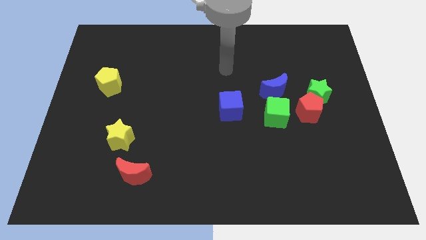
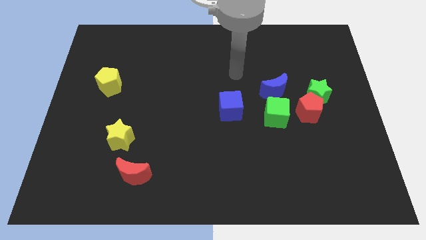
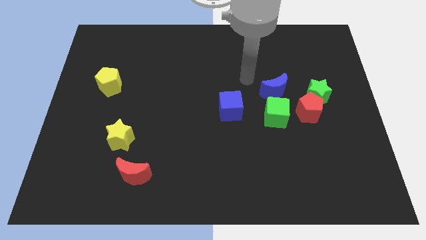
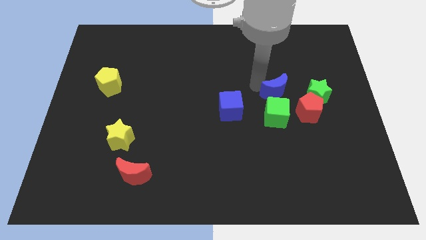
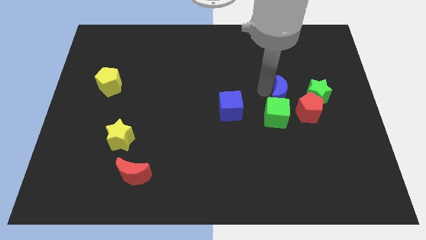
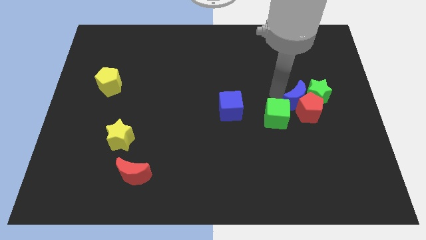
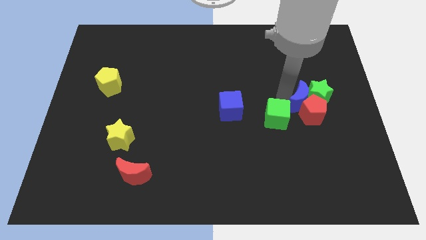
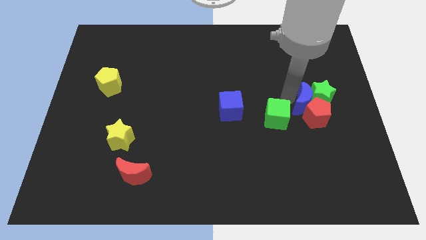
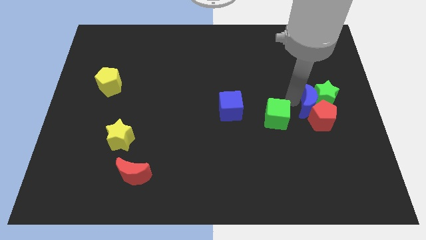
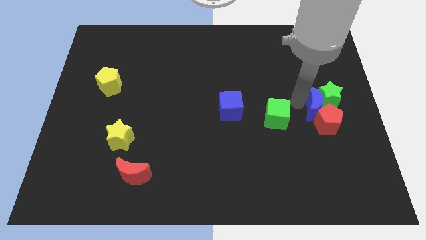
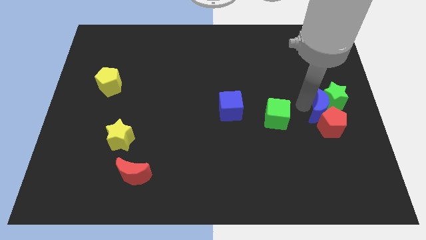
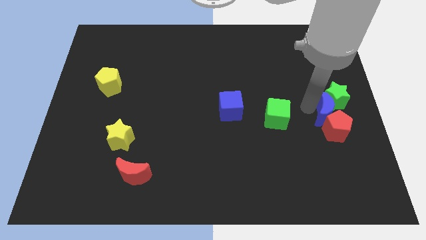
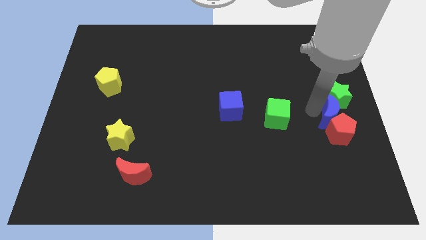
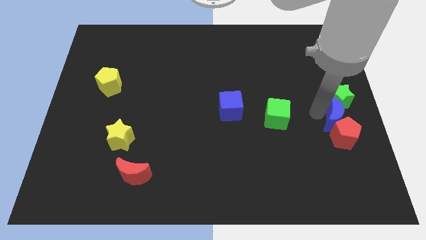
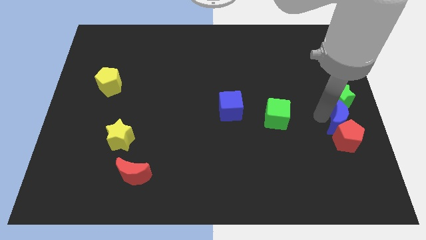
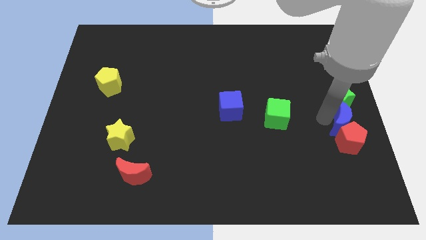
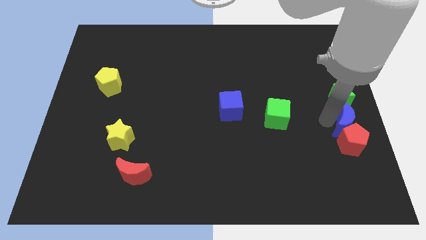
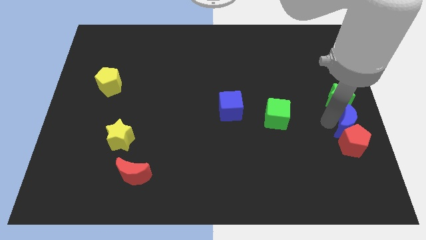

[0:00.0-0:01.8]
move the red pentagon away from the clump

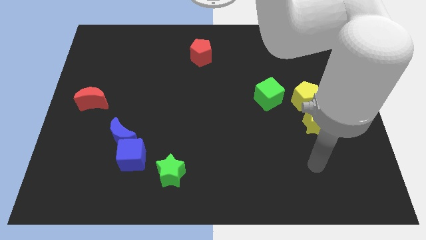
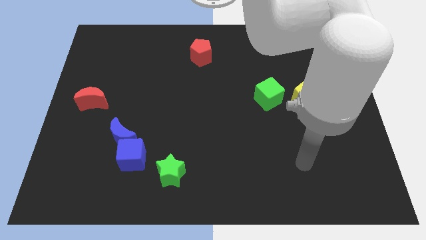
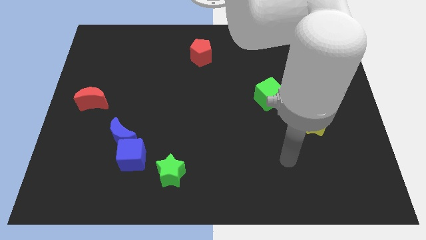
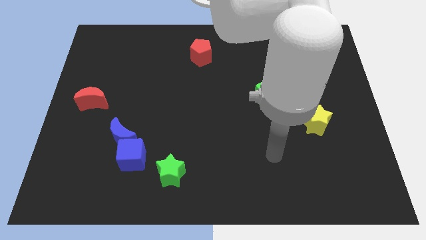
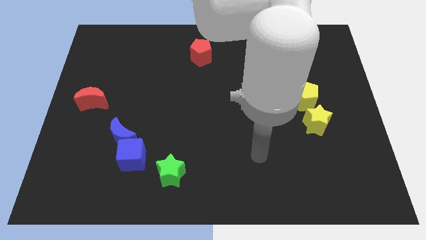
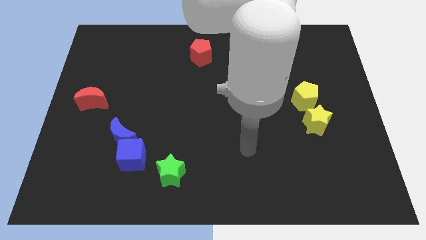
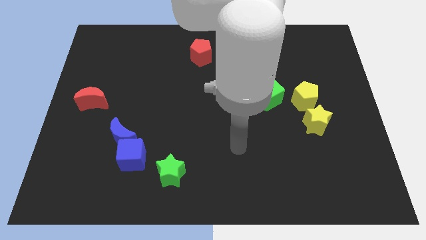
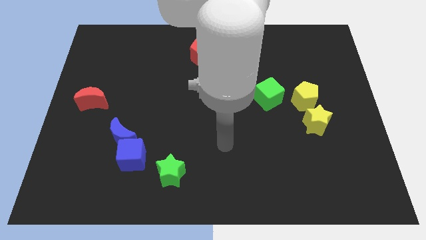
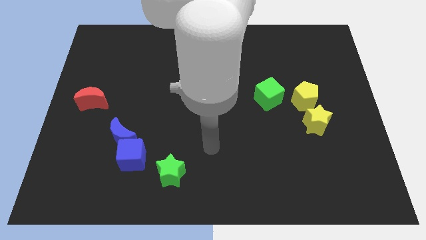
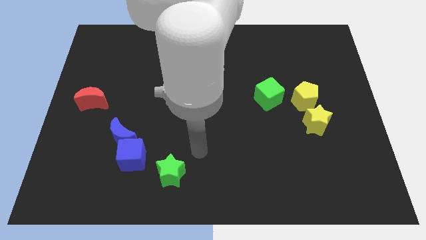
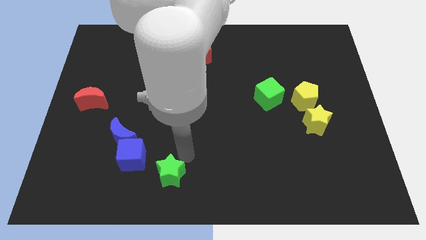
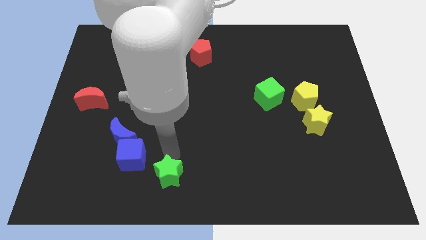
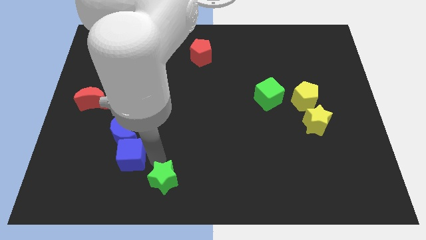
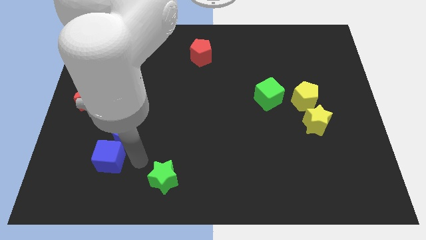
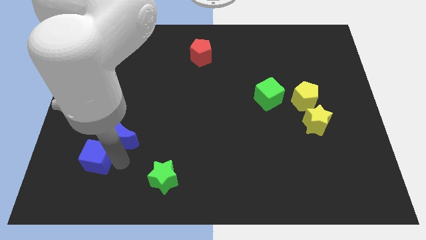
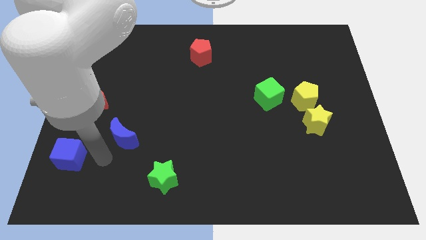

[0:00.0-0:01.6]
pull the blue moon apart from the blue cube

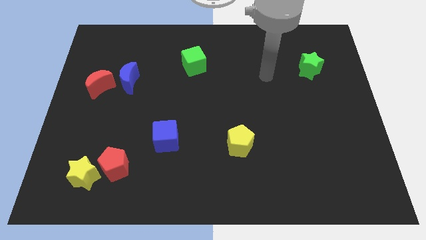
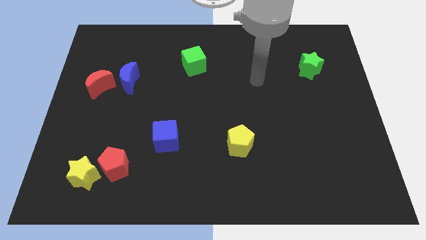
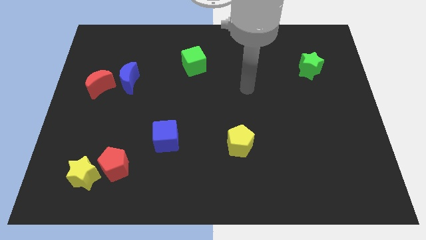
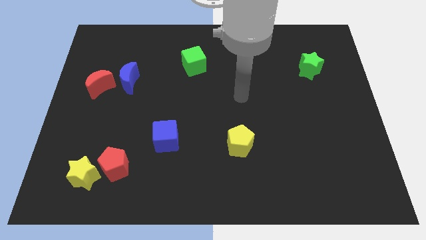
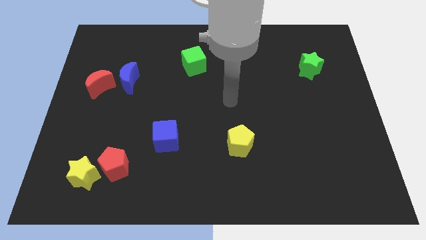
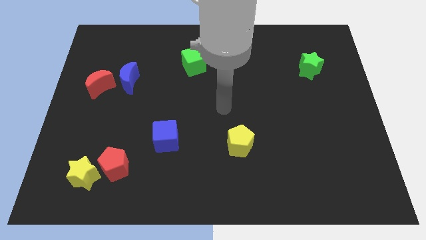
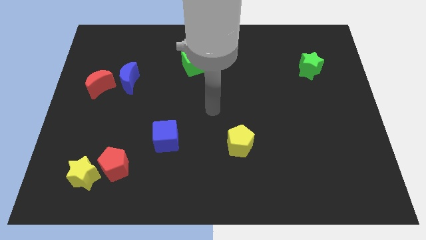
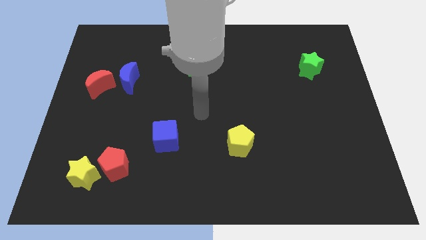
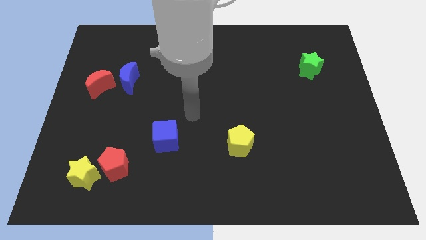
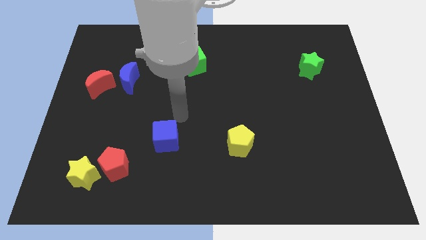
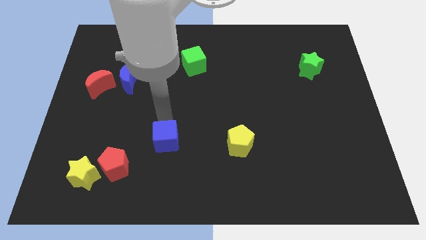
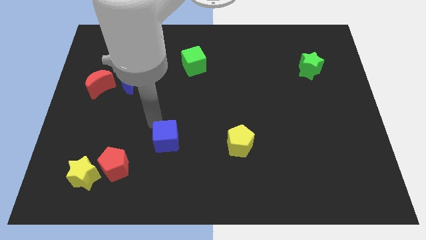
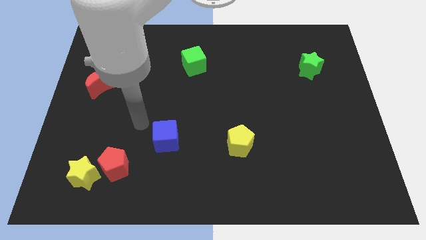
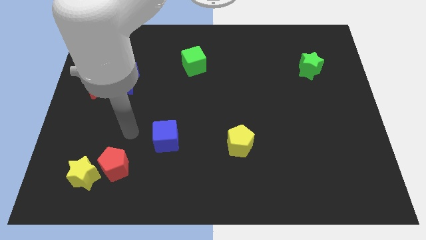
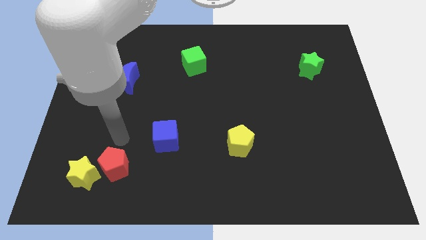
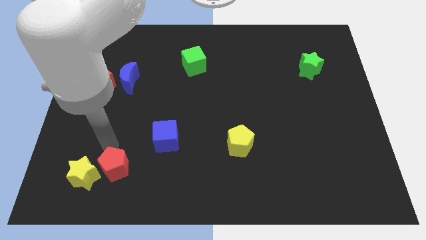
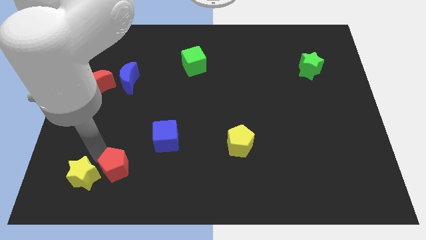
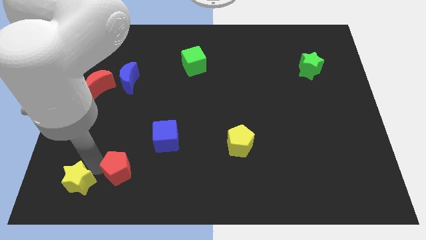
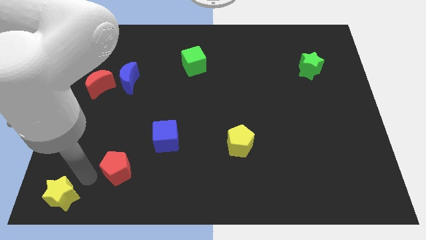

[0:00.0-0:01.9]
pull the red pentagon apart from the yellow star

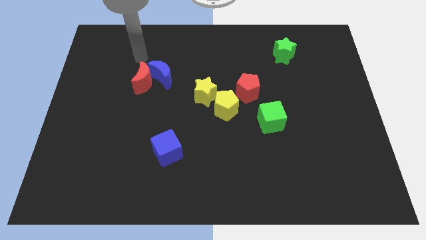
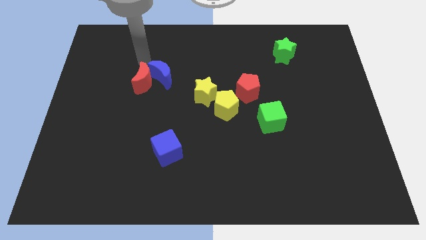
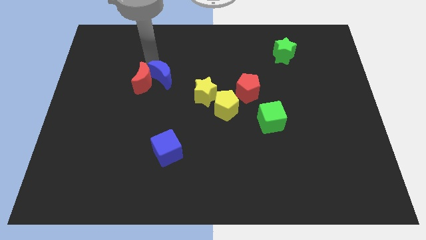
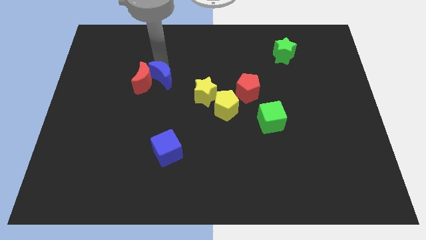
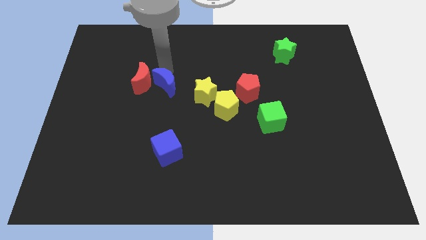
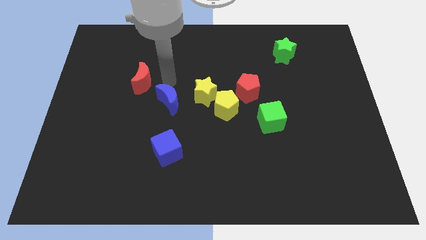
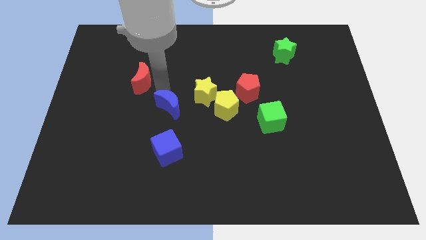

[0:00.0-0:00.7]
separate the red moon from the blue moon

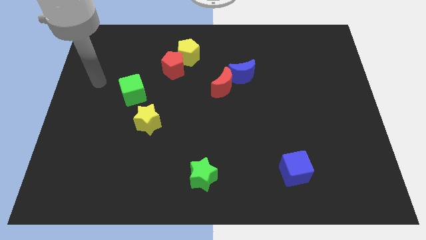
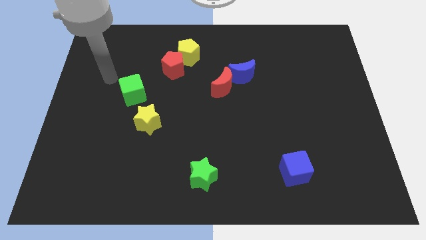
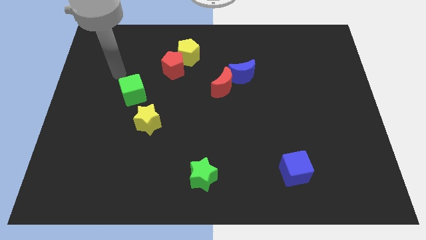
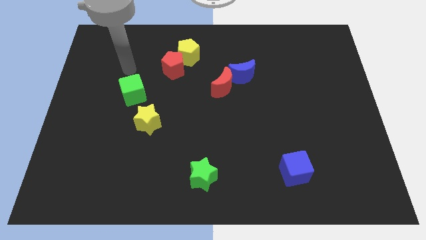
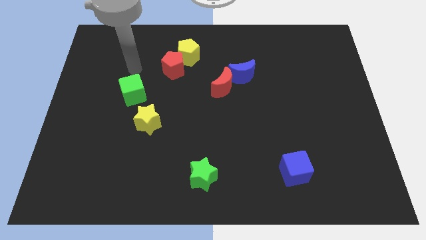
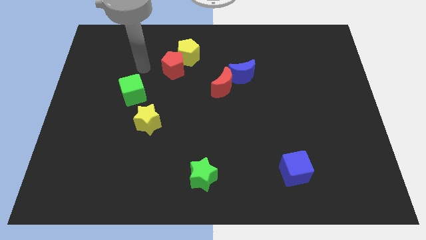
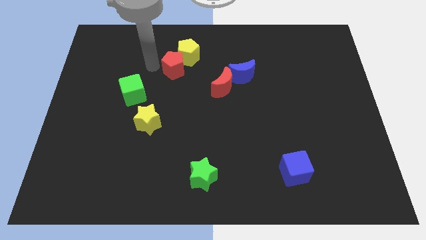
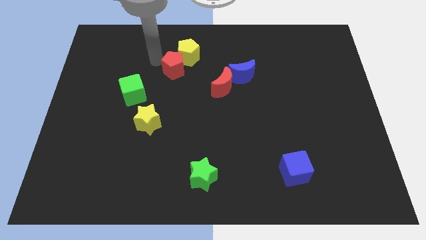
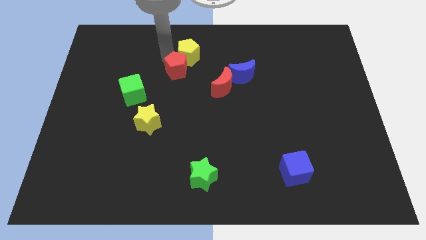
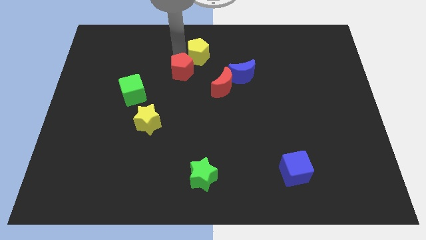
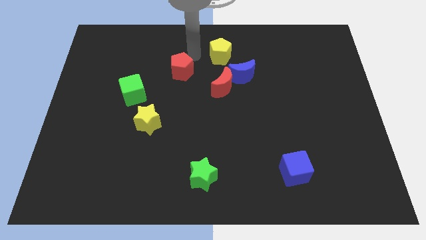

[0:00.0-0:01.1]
separate the red pentagon from the yellow pentagon

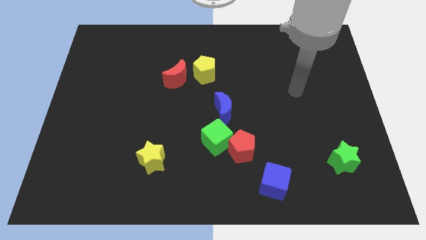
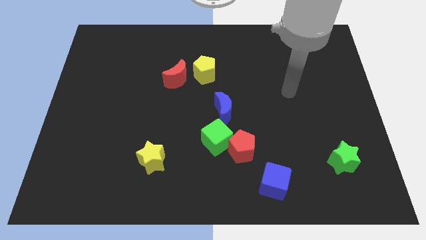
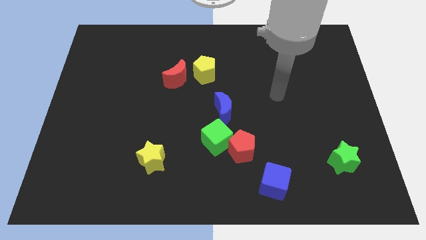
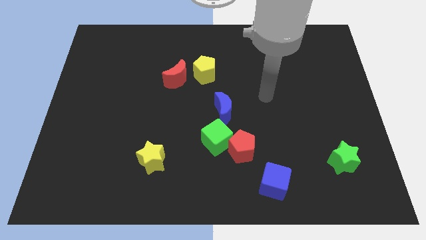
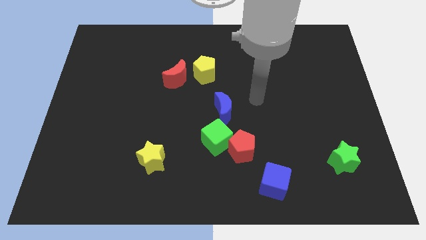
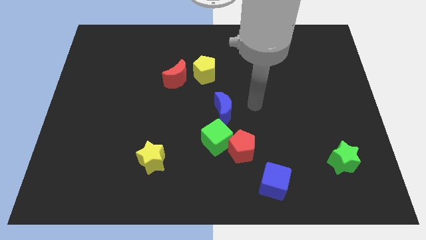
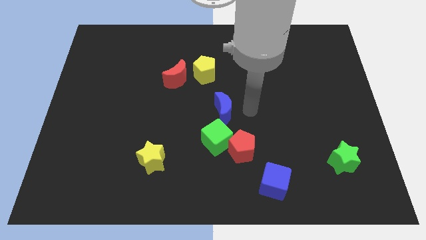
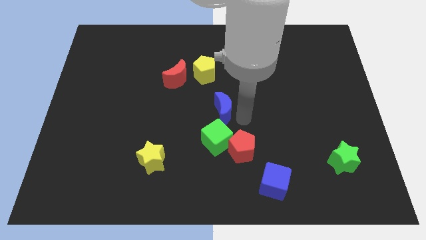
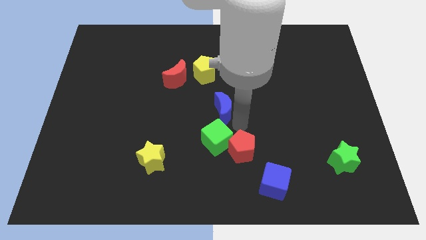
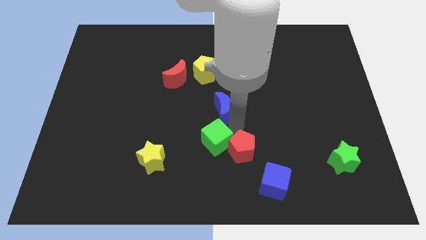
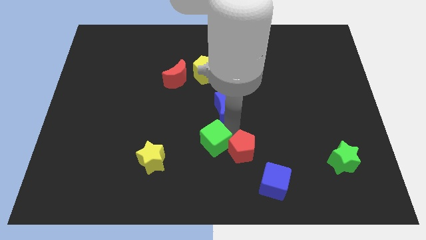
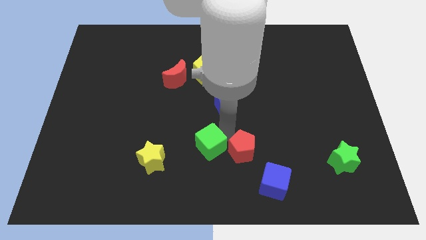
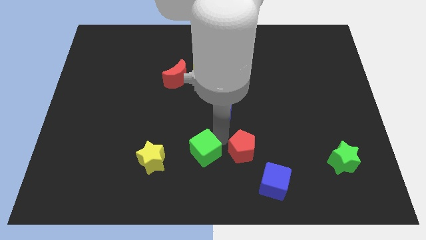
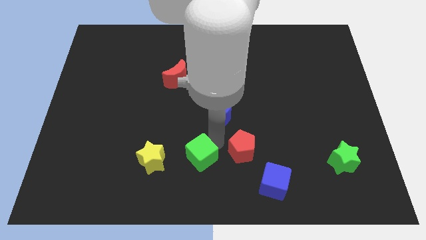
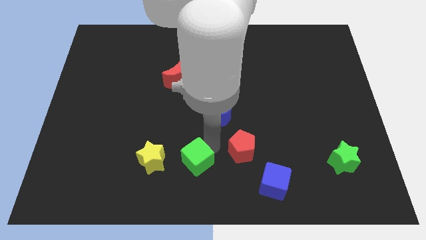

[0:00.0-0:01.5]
separate the green cube from the red pentagon and blue moon

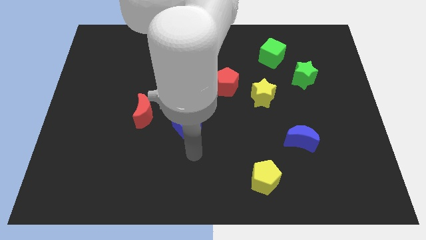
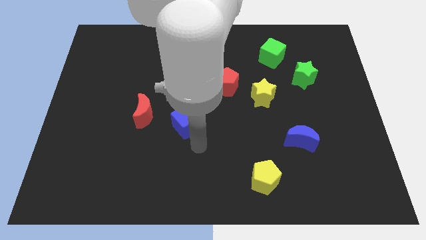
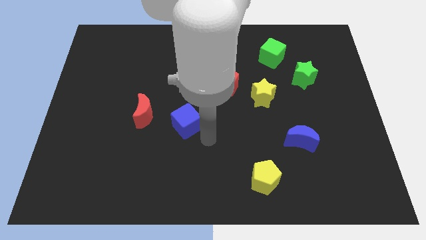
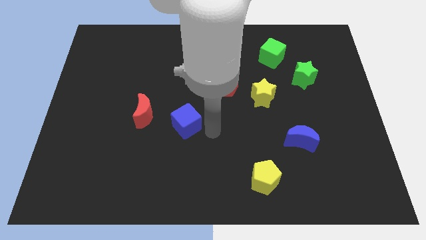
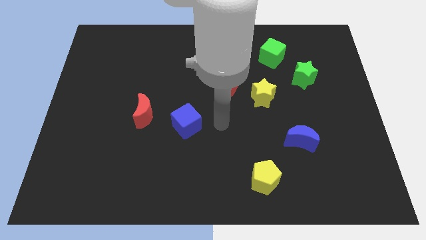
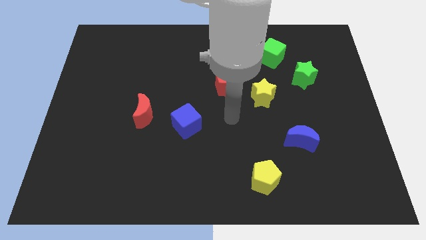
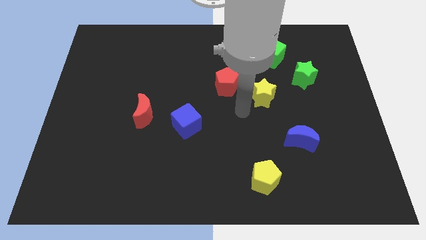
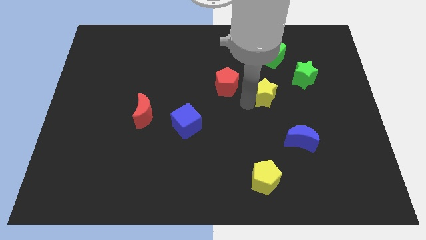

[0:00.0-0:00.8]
separate the red pentagon from the yellow star
